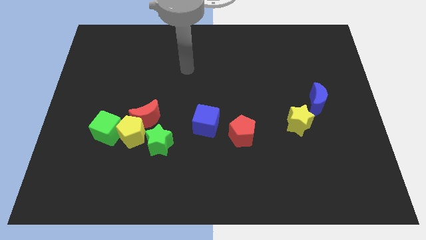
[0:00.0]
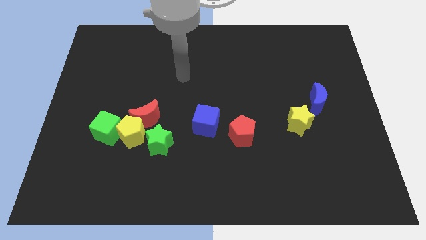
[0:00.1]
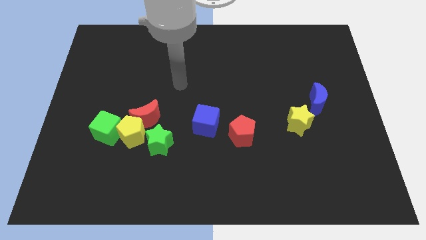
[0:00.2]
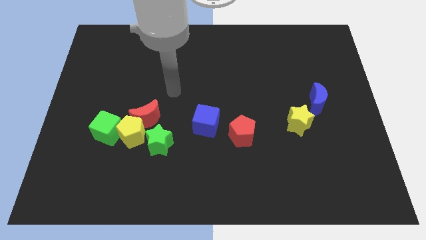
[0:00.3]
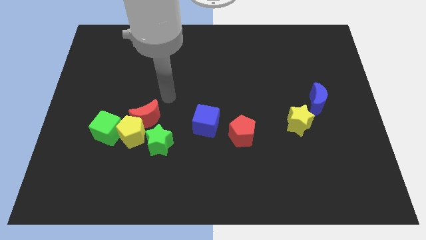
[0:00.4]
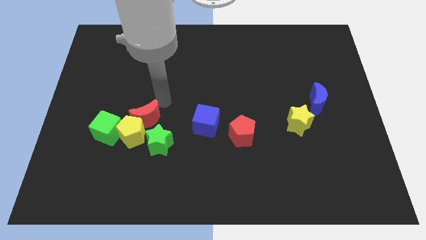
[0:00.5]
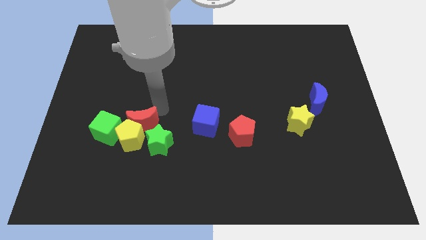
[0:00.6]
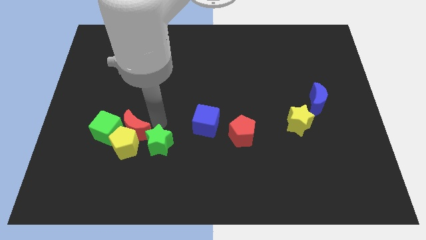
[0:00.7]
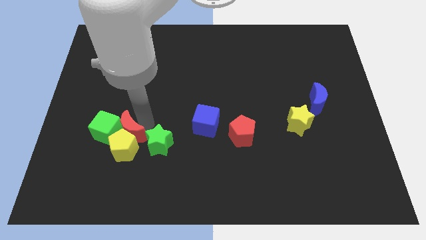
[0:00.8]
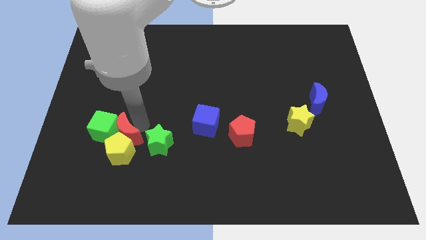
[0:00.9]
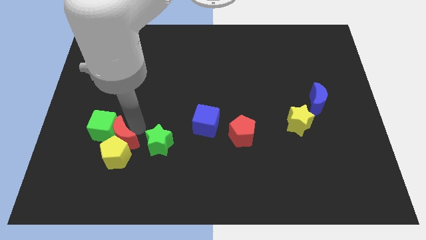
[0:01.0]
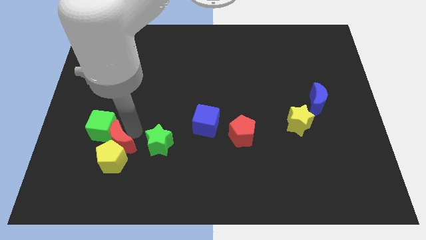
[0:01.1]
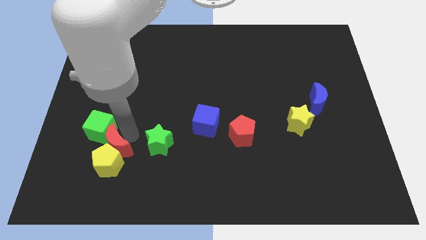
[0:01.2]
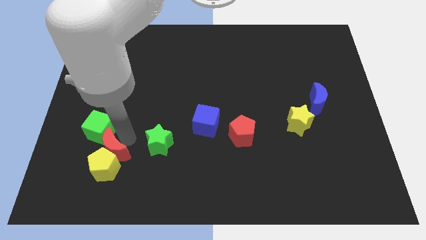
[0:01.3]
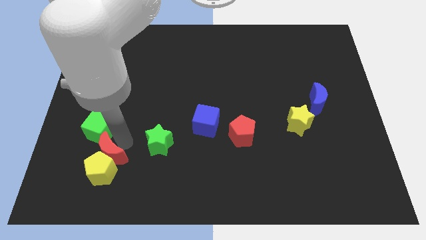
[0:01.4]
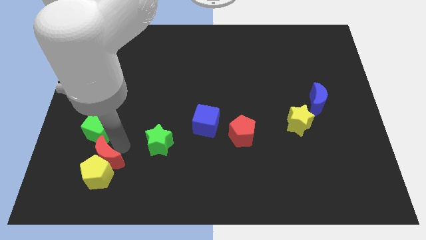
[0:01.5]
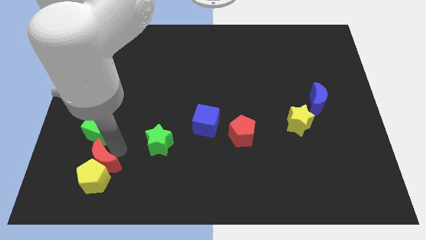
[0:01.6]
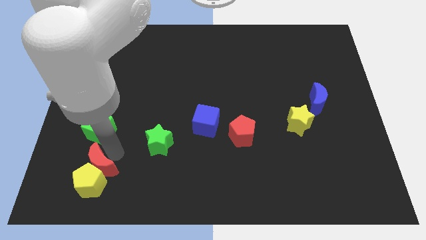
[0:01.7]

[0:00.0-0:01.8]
separate the yellow pentagon from the clump

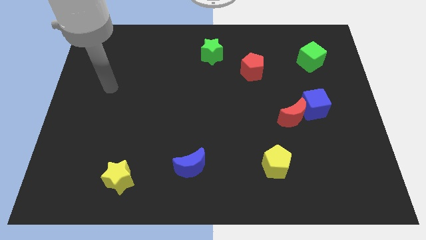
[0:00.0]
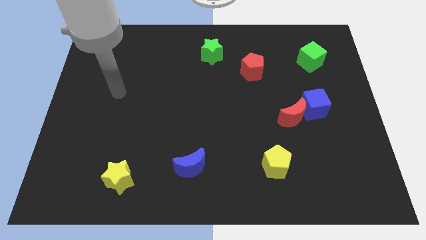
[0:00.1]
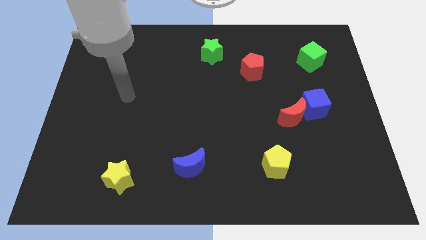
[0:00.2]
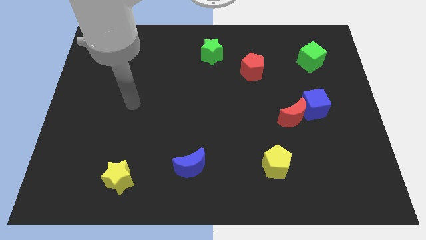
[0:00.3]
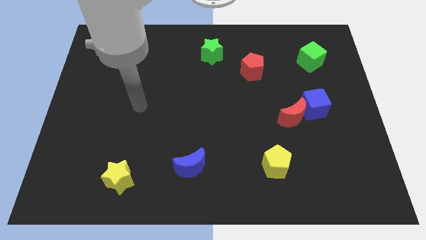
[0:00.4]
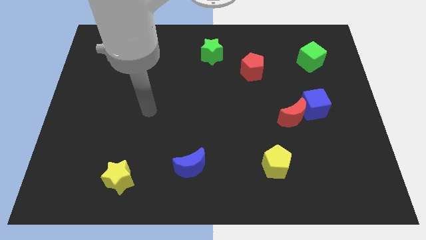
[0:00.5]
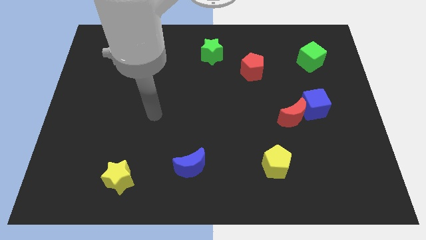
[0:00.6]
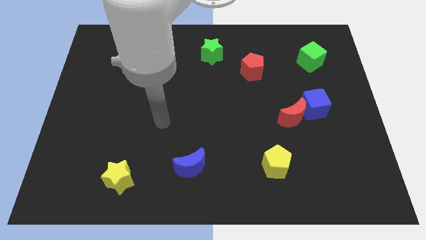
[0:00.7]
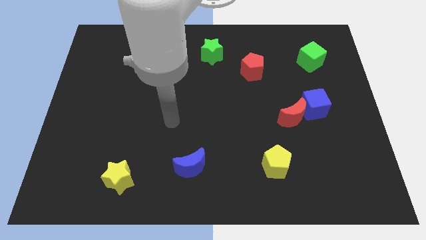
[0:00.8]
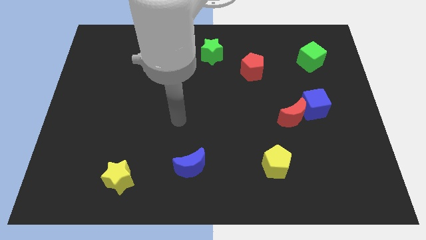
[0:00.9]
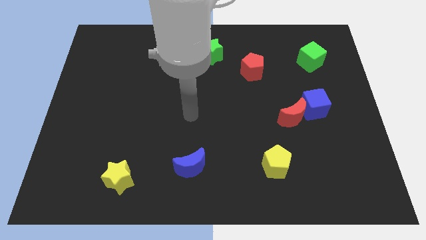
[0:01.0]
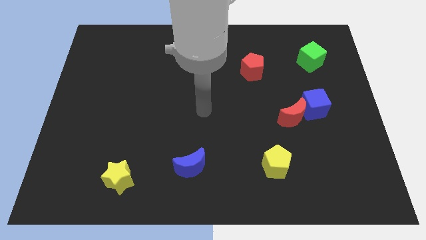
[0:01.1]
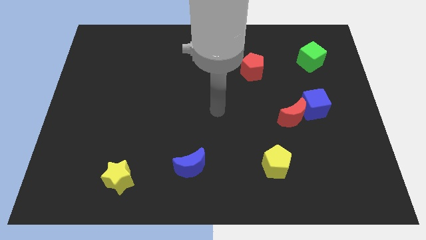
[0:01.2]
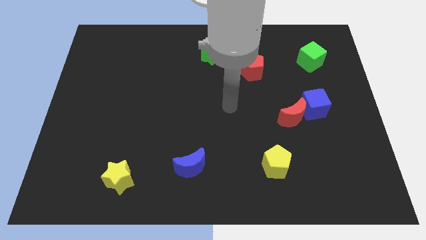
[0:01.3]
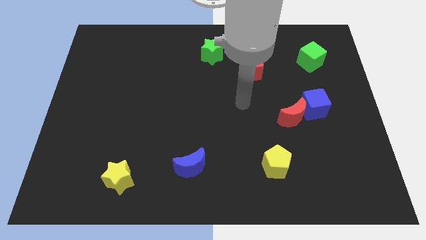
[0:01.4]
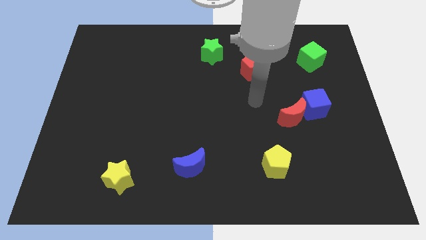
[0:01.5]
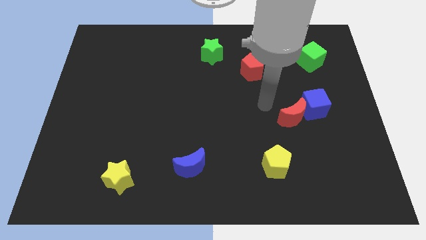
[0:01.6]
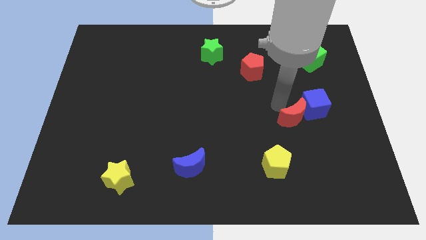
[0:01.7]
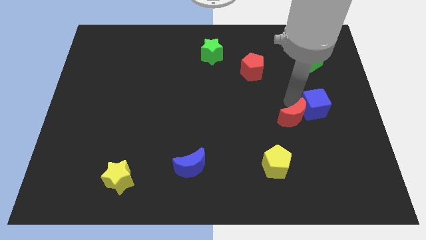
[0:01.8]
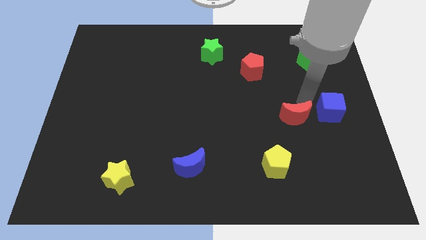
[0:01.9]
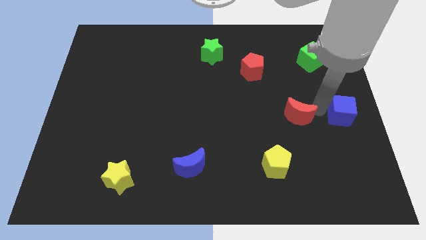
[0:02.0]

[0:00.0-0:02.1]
pull the red moon apart from the blue cube

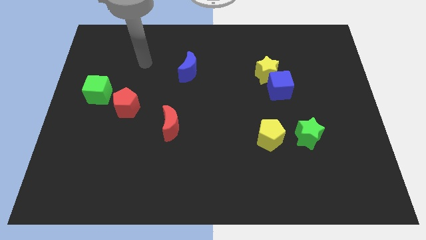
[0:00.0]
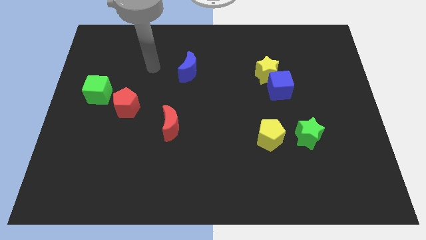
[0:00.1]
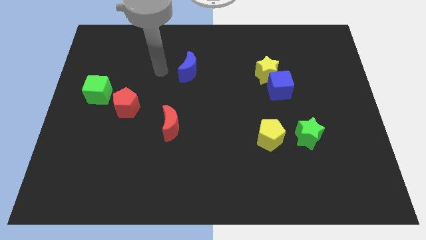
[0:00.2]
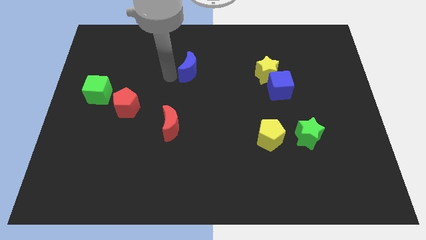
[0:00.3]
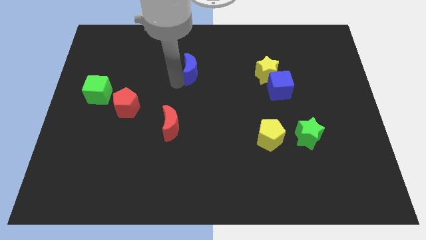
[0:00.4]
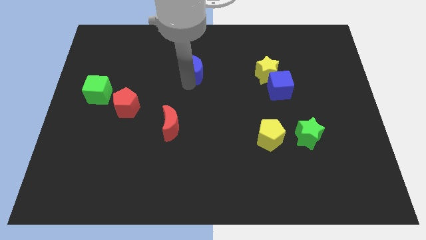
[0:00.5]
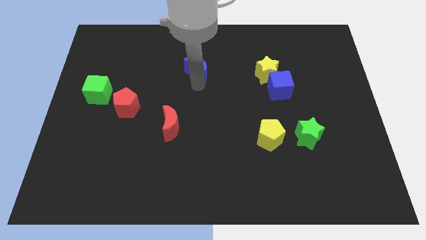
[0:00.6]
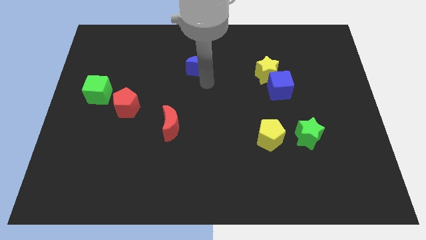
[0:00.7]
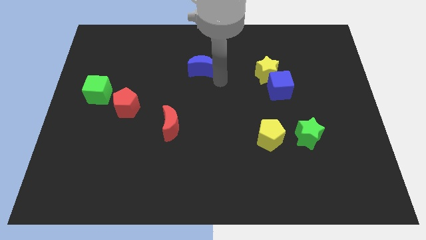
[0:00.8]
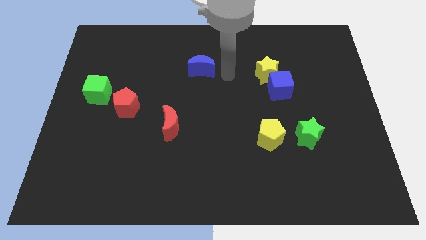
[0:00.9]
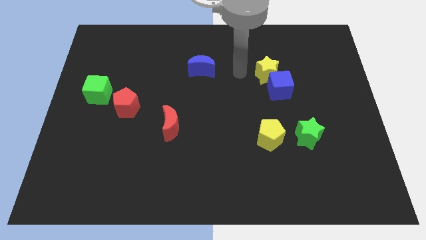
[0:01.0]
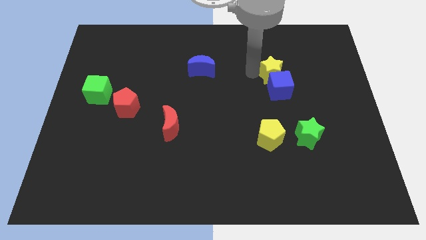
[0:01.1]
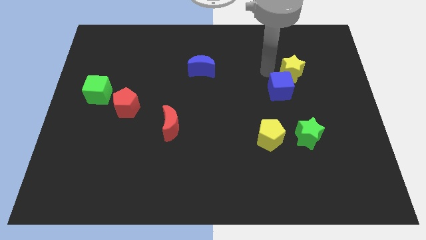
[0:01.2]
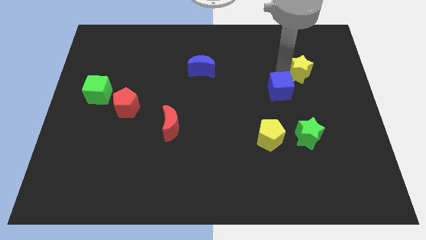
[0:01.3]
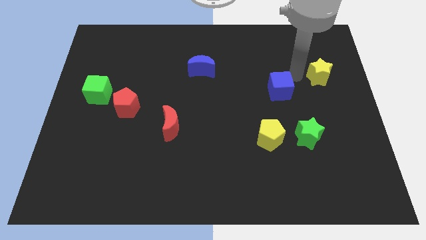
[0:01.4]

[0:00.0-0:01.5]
separate the blue cube from the yellow star

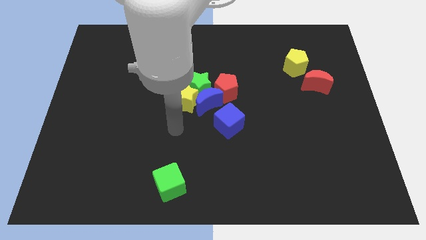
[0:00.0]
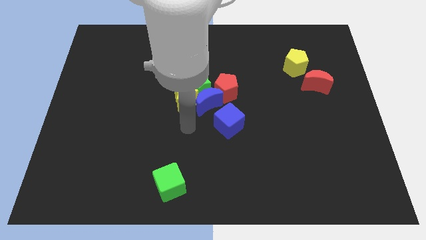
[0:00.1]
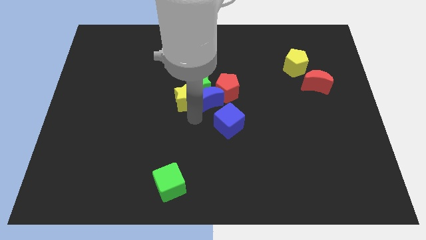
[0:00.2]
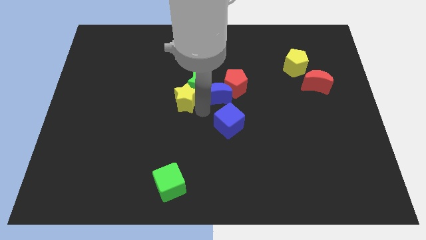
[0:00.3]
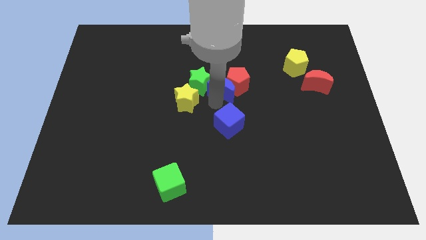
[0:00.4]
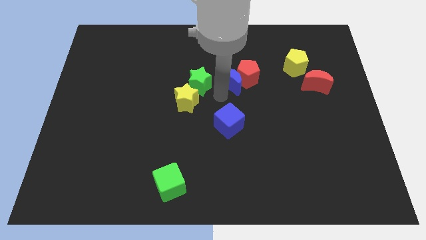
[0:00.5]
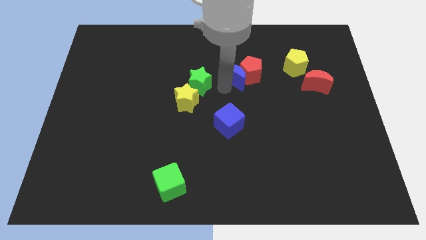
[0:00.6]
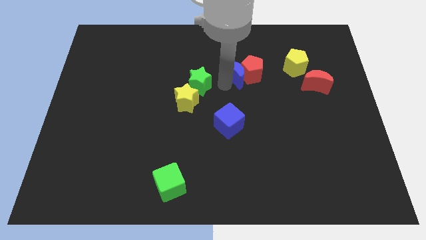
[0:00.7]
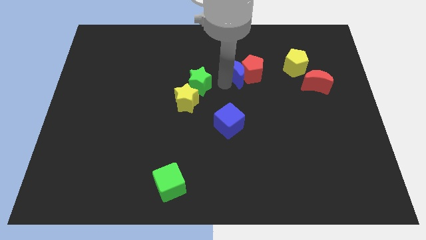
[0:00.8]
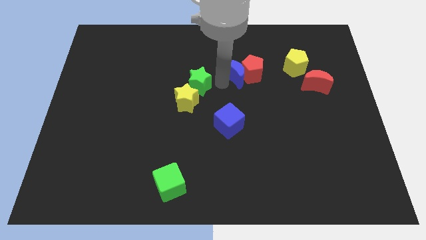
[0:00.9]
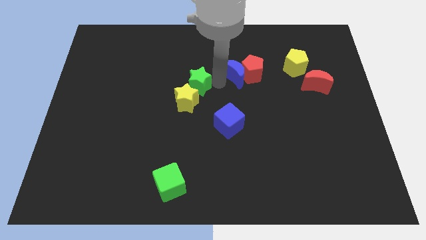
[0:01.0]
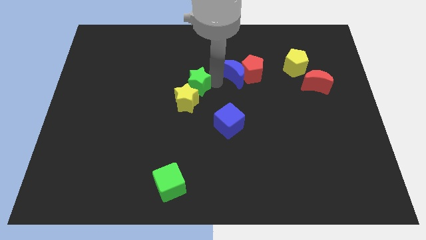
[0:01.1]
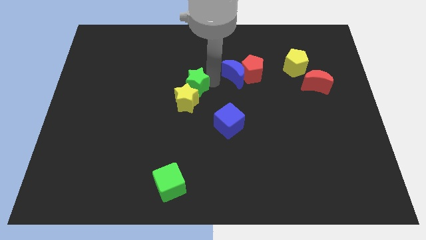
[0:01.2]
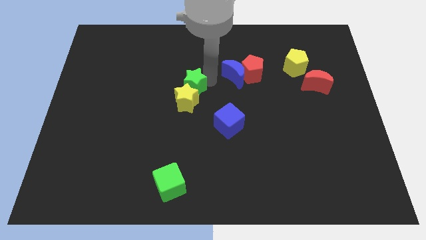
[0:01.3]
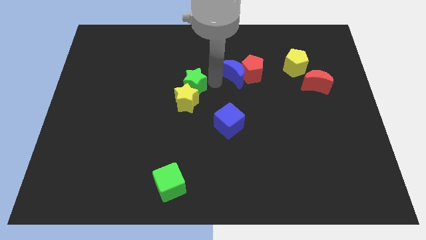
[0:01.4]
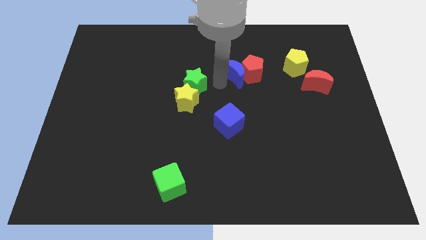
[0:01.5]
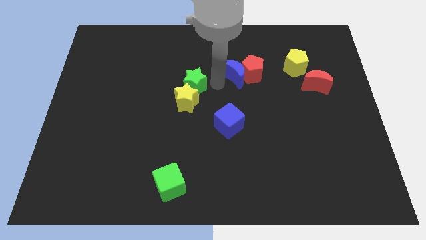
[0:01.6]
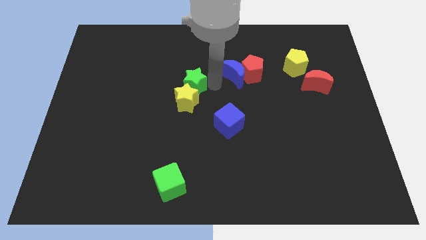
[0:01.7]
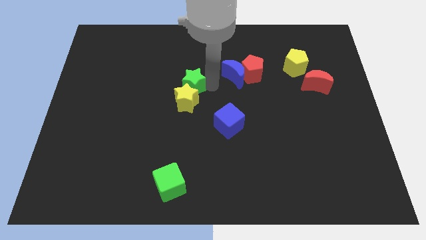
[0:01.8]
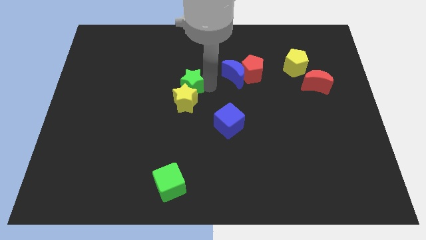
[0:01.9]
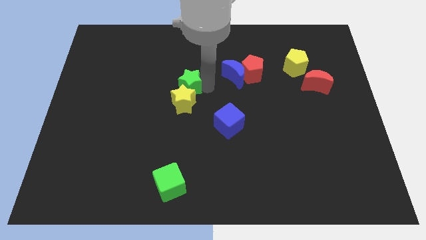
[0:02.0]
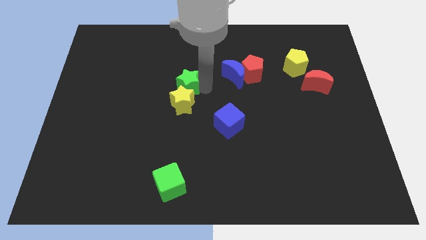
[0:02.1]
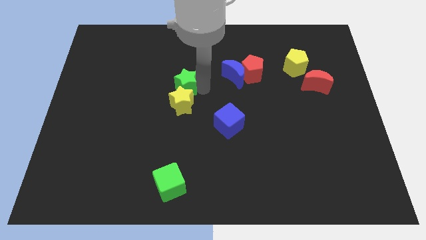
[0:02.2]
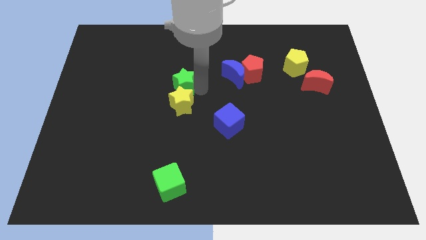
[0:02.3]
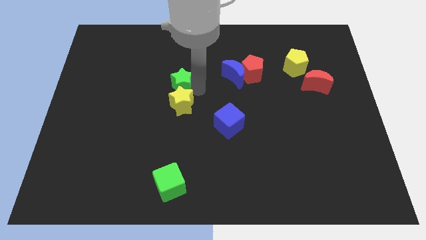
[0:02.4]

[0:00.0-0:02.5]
move the green star away from the yellow star, blue moon, and red pentagon

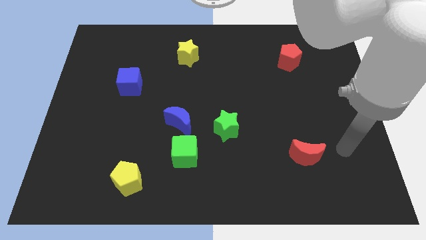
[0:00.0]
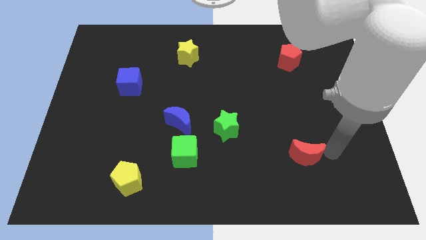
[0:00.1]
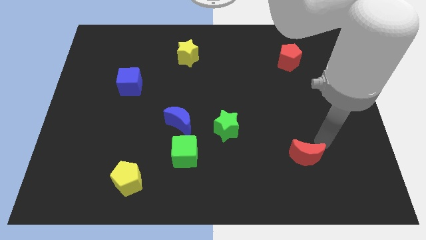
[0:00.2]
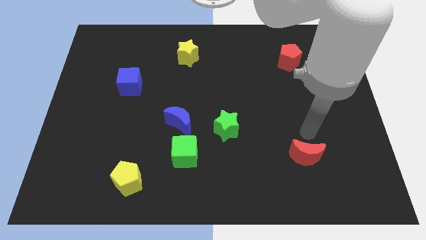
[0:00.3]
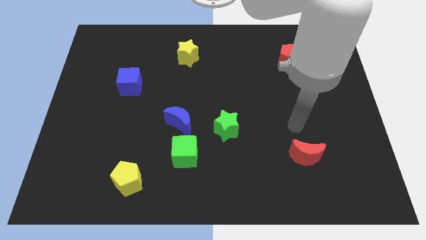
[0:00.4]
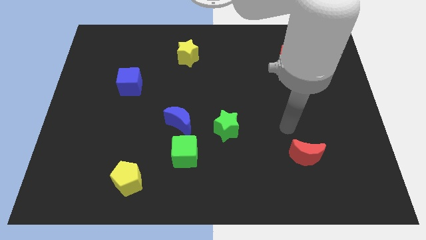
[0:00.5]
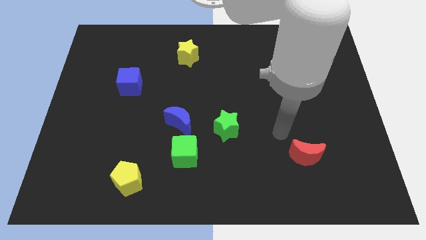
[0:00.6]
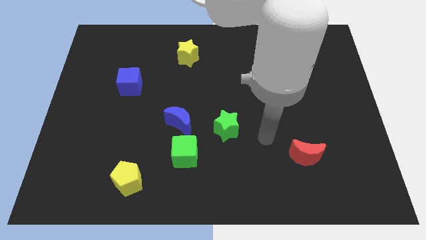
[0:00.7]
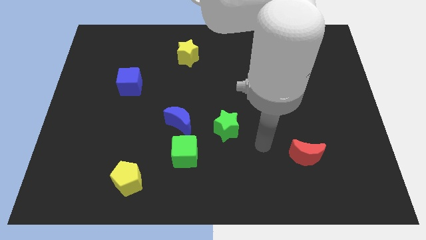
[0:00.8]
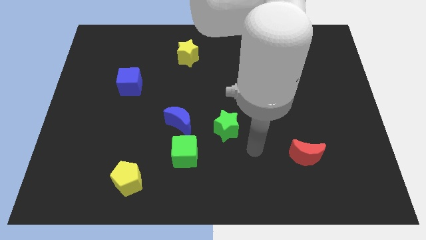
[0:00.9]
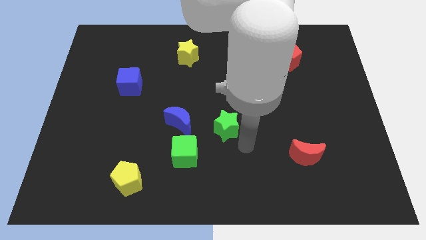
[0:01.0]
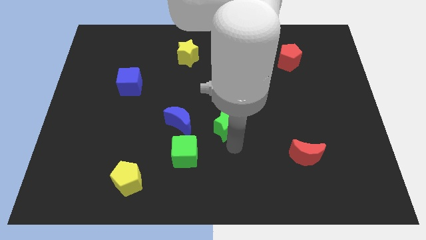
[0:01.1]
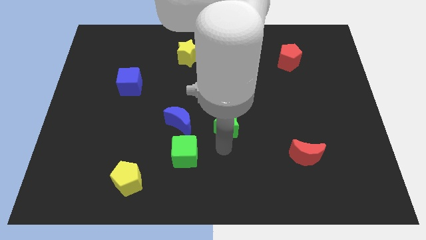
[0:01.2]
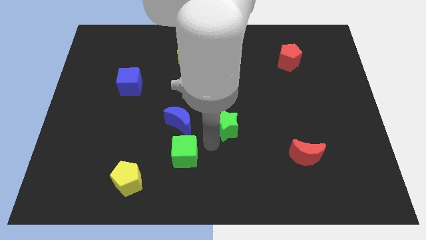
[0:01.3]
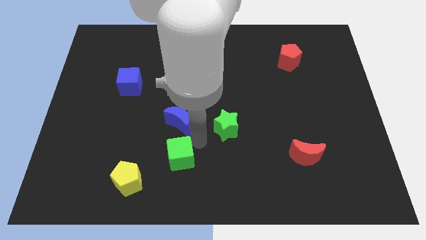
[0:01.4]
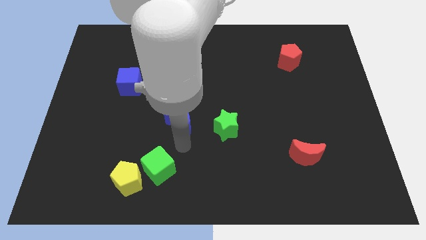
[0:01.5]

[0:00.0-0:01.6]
separate the blue moon from the green cube
